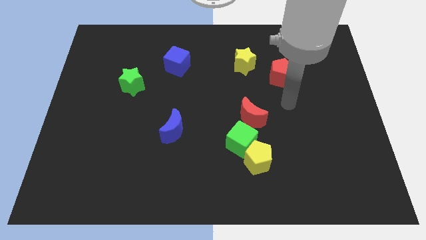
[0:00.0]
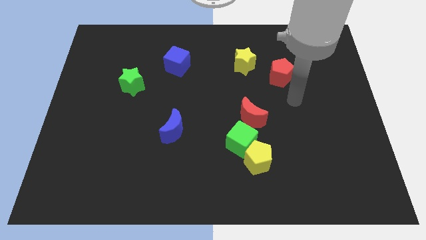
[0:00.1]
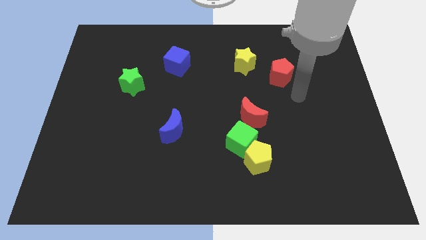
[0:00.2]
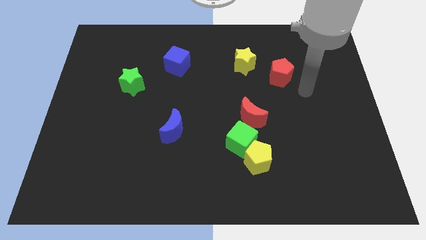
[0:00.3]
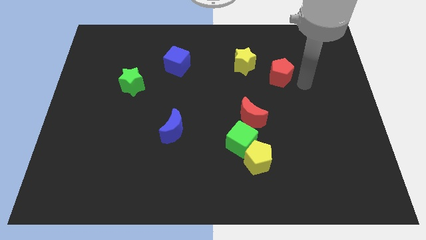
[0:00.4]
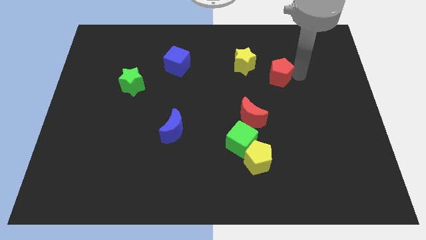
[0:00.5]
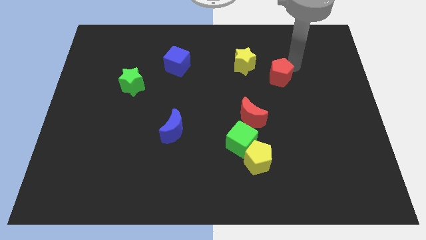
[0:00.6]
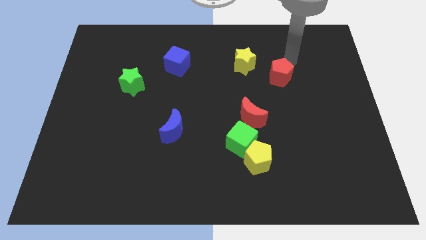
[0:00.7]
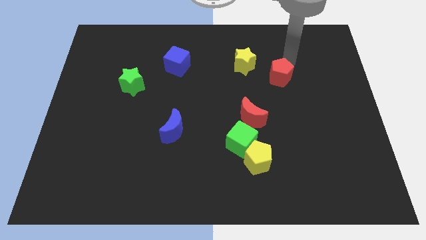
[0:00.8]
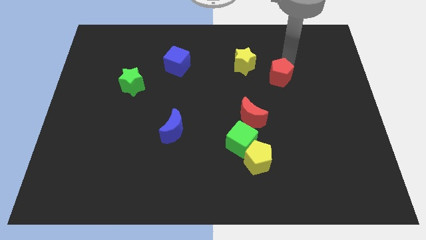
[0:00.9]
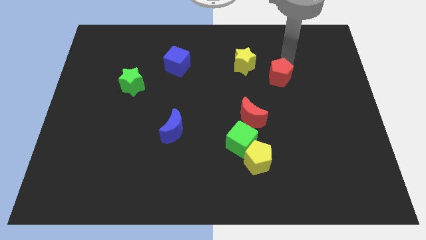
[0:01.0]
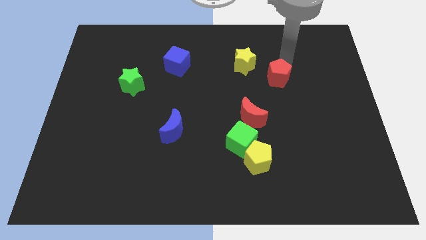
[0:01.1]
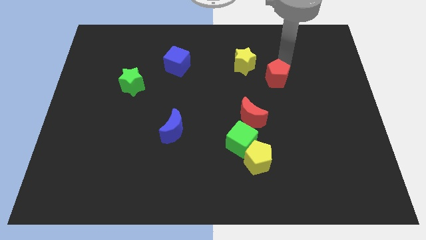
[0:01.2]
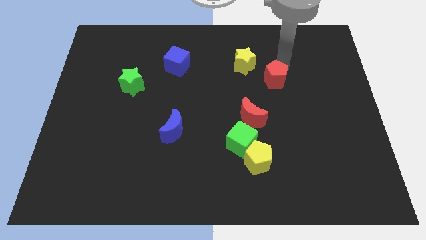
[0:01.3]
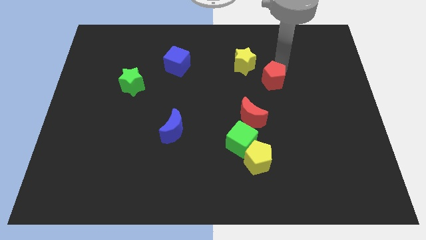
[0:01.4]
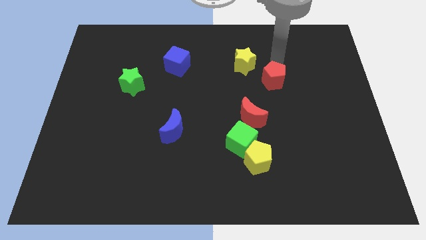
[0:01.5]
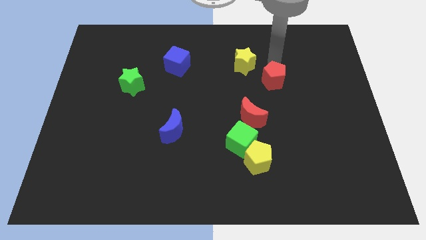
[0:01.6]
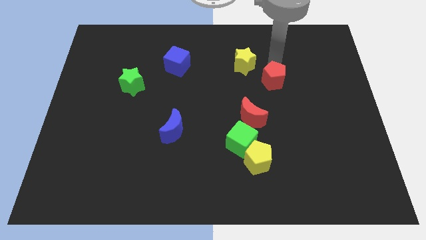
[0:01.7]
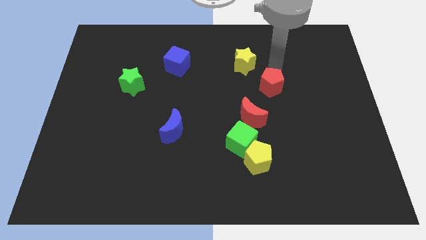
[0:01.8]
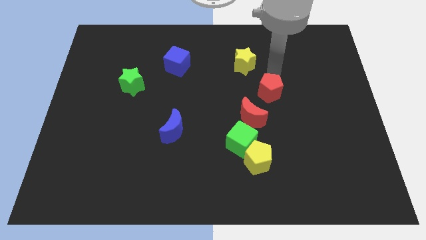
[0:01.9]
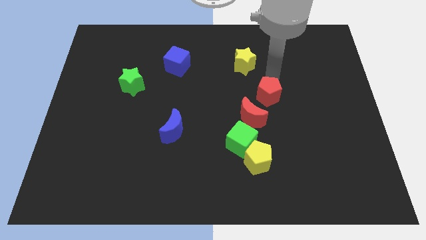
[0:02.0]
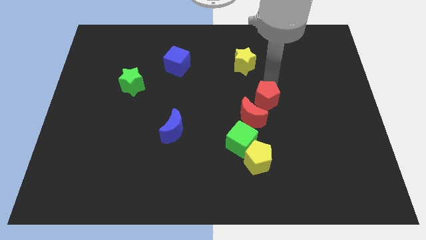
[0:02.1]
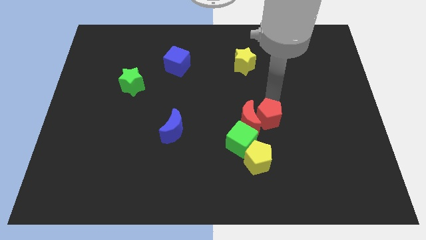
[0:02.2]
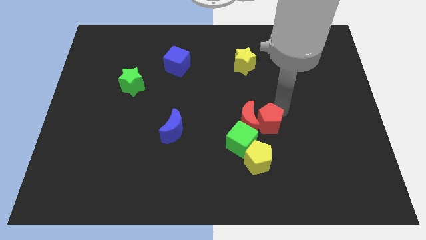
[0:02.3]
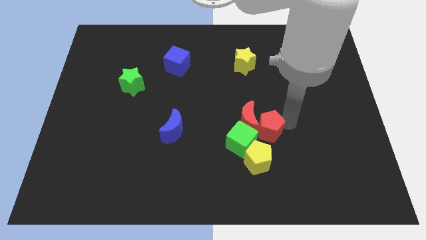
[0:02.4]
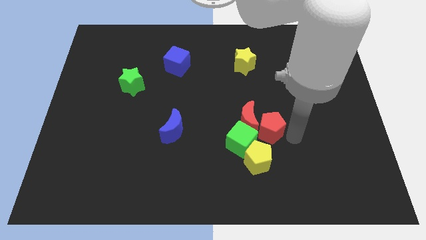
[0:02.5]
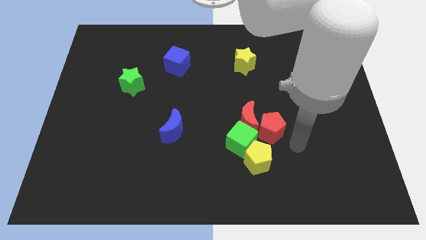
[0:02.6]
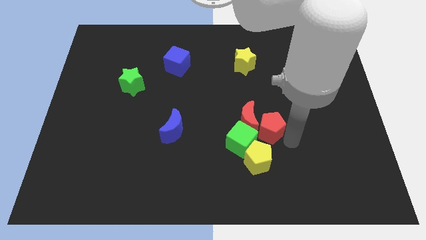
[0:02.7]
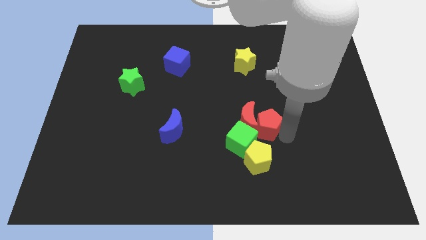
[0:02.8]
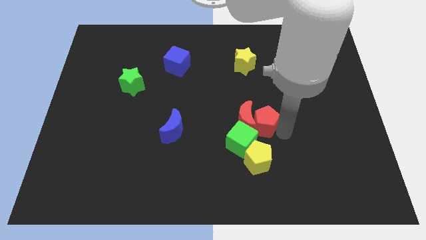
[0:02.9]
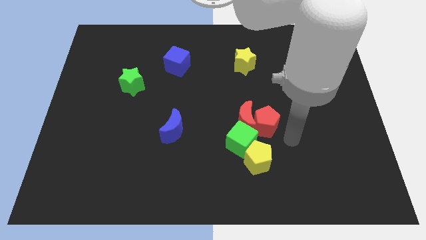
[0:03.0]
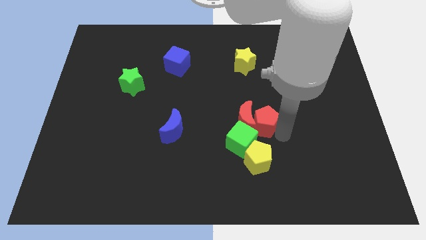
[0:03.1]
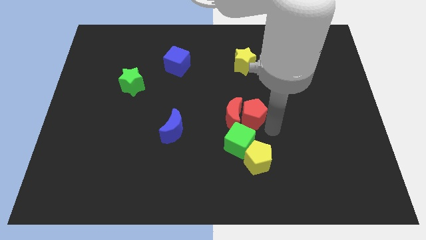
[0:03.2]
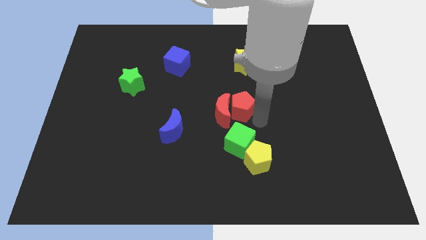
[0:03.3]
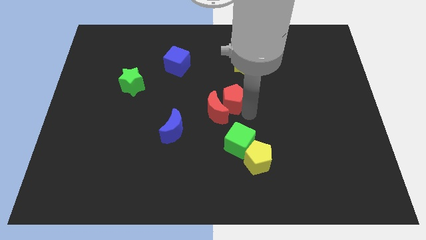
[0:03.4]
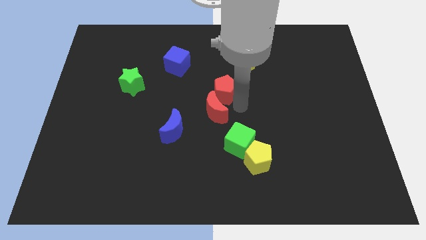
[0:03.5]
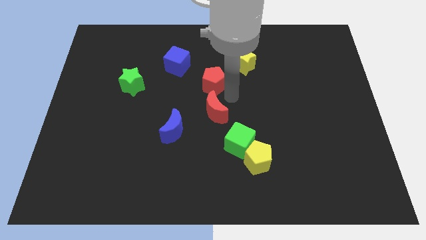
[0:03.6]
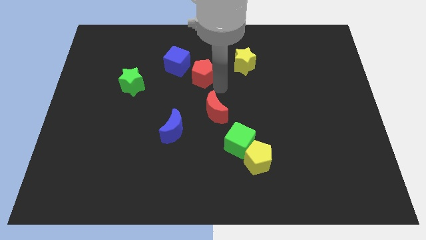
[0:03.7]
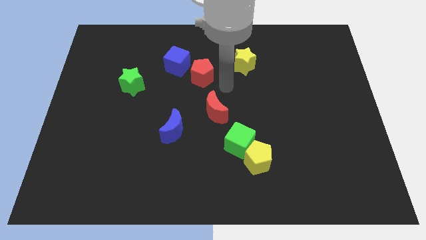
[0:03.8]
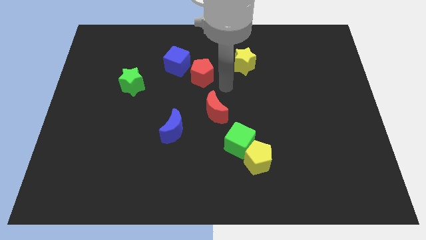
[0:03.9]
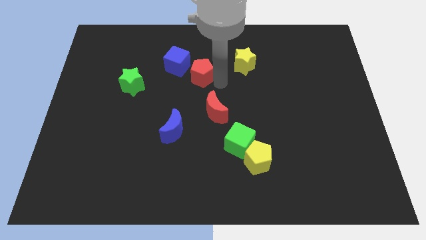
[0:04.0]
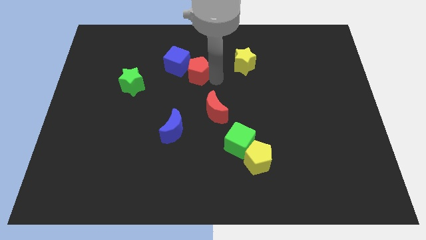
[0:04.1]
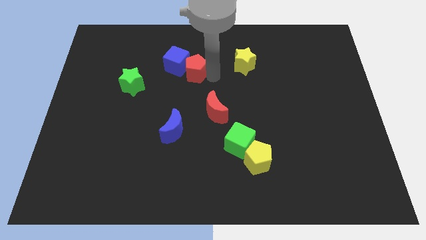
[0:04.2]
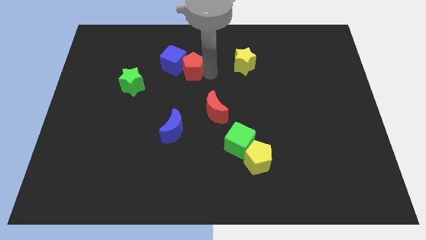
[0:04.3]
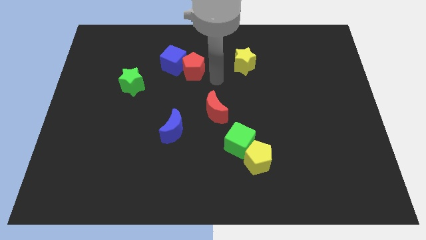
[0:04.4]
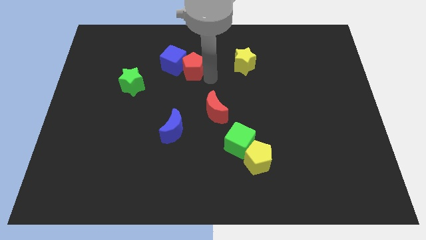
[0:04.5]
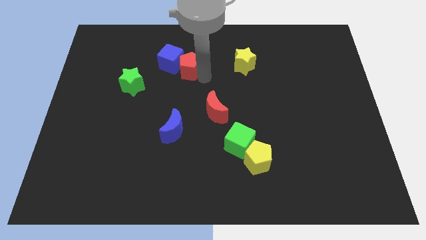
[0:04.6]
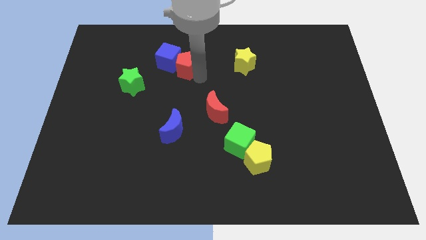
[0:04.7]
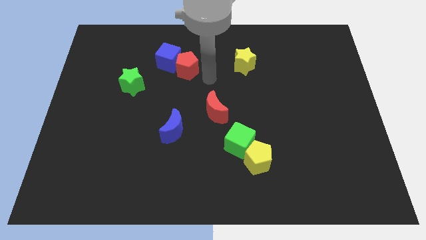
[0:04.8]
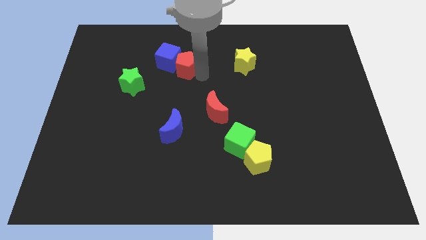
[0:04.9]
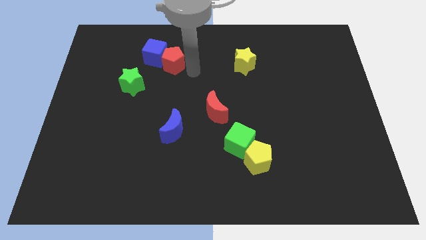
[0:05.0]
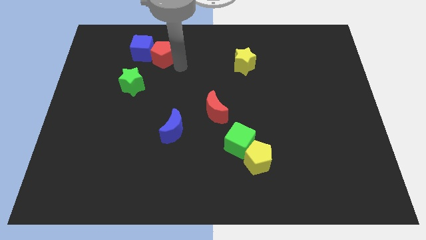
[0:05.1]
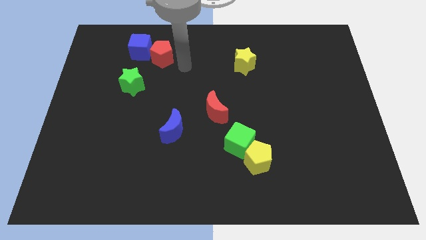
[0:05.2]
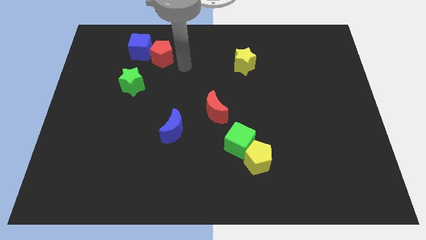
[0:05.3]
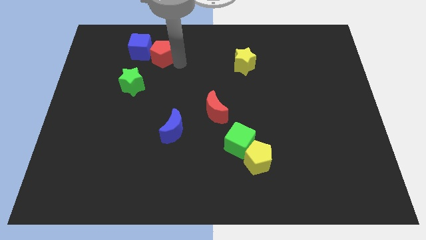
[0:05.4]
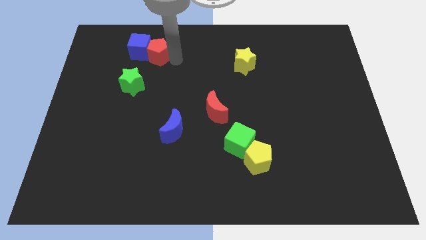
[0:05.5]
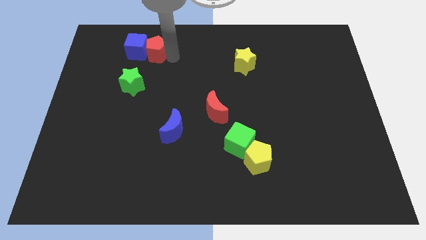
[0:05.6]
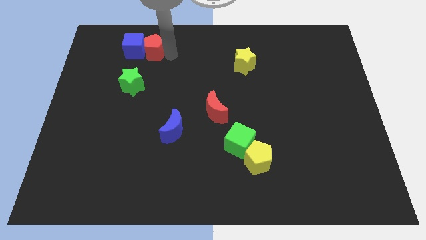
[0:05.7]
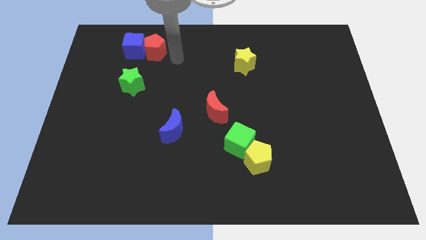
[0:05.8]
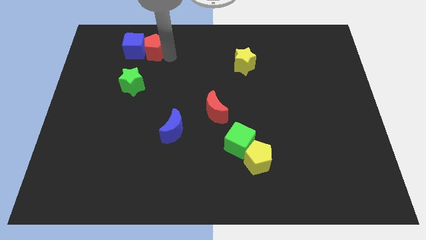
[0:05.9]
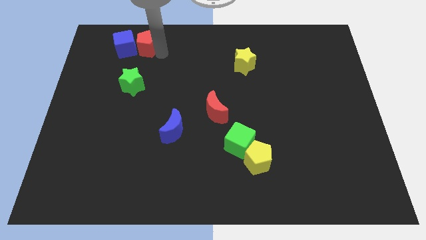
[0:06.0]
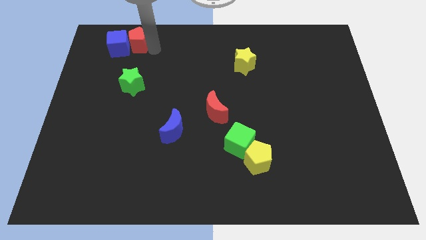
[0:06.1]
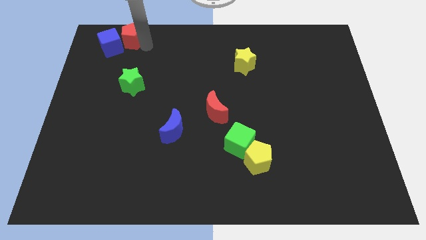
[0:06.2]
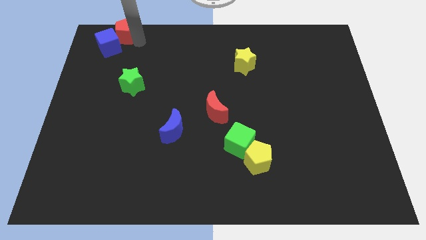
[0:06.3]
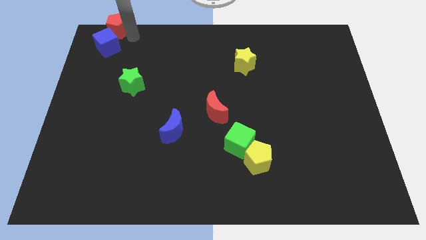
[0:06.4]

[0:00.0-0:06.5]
put the red pentagon to the top left corner
